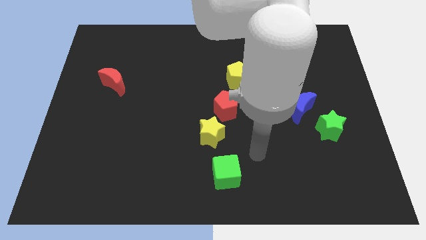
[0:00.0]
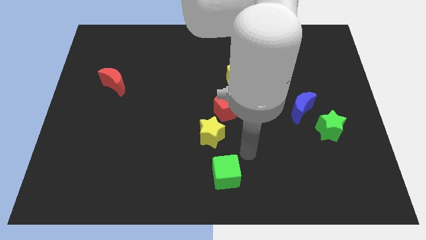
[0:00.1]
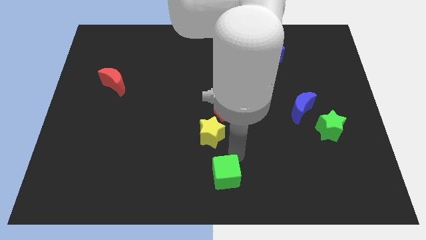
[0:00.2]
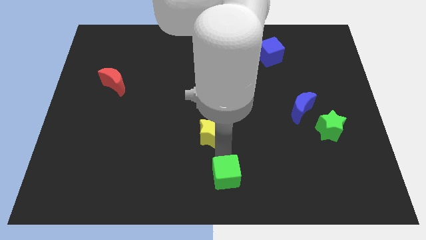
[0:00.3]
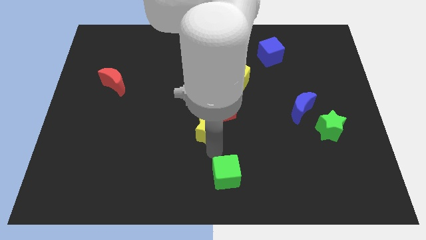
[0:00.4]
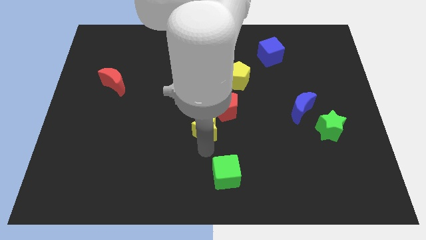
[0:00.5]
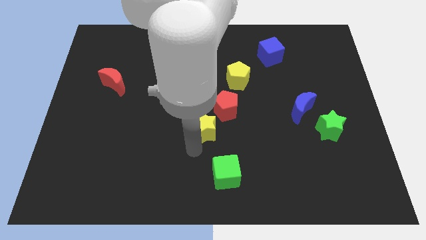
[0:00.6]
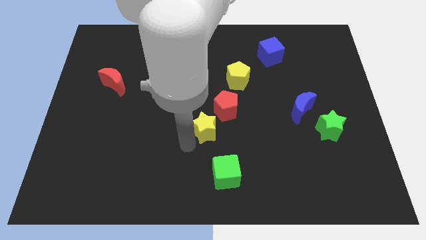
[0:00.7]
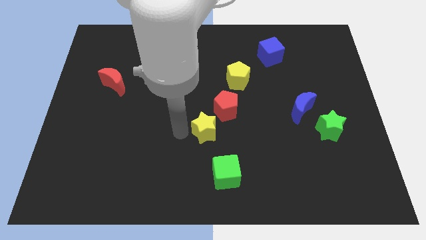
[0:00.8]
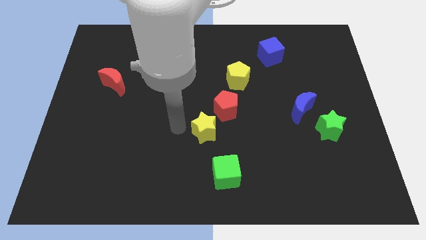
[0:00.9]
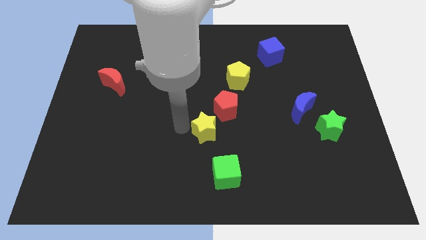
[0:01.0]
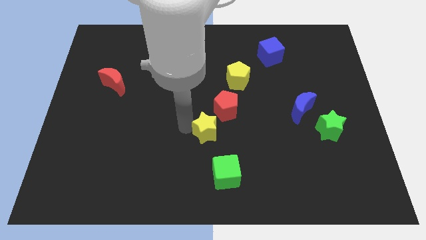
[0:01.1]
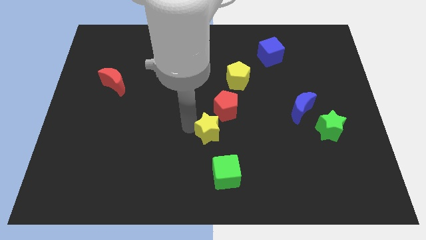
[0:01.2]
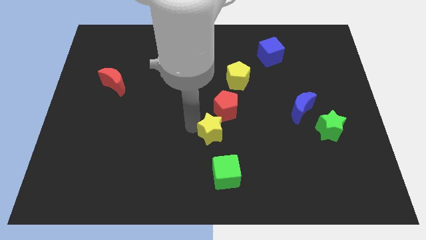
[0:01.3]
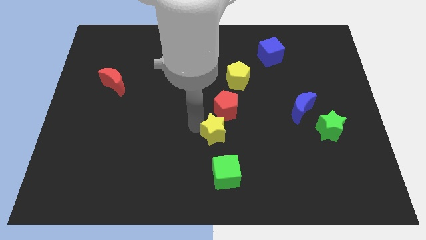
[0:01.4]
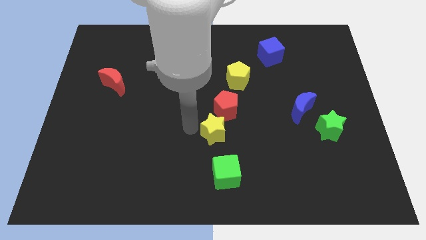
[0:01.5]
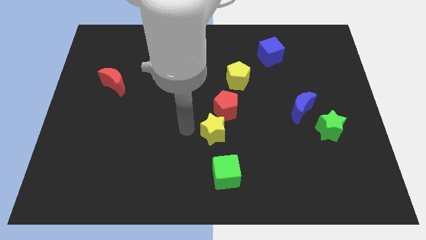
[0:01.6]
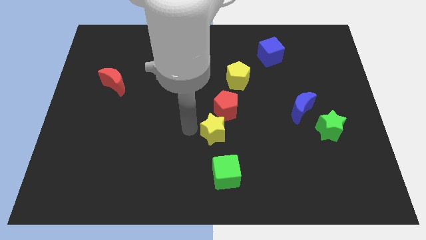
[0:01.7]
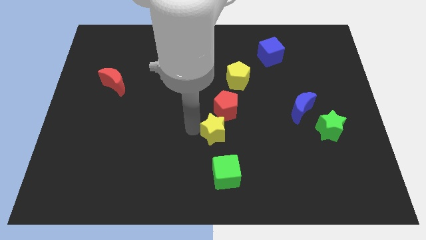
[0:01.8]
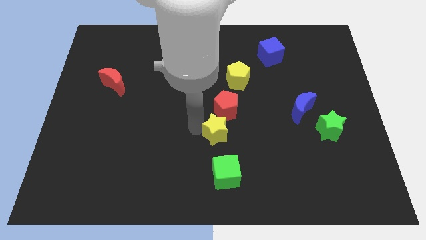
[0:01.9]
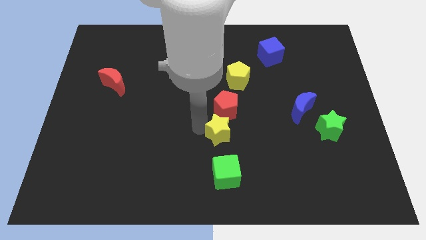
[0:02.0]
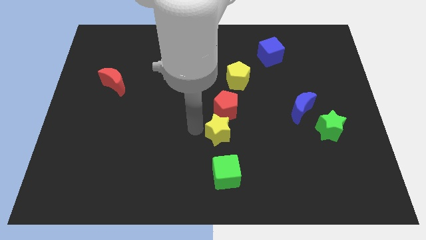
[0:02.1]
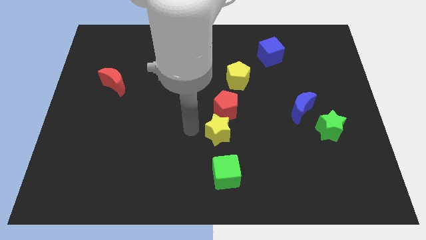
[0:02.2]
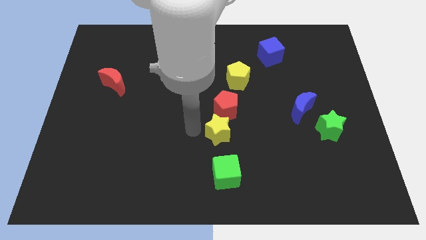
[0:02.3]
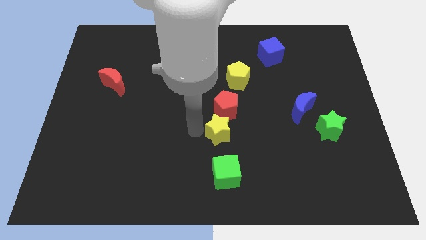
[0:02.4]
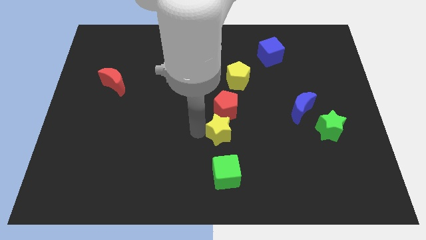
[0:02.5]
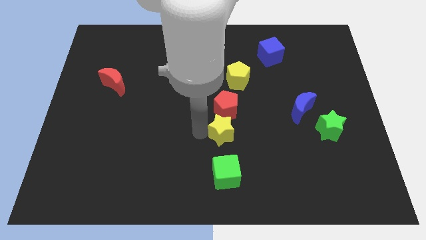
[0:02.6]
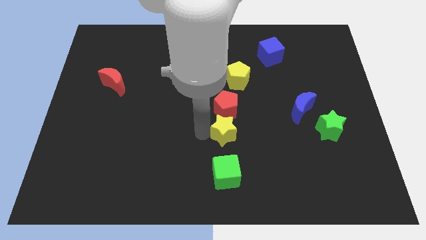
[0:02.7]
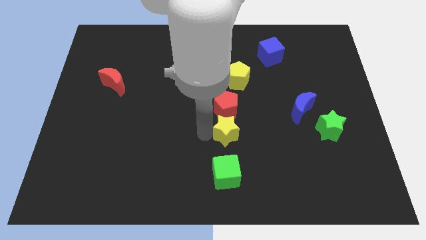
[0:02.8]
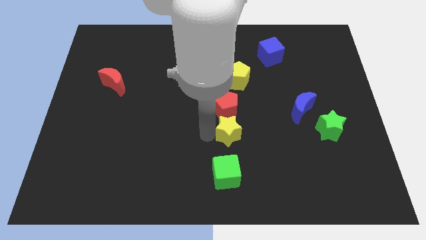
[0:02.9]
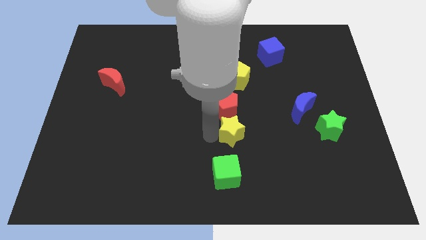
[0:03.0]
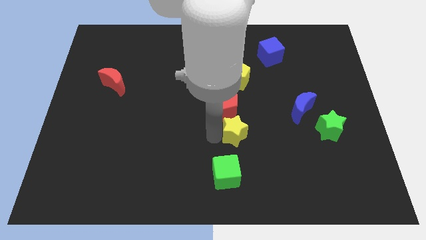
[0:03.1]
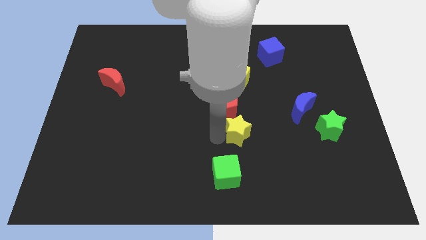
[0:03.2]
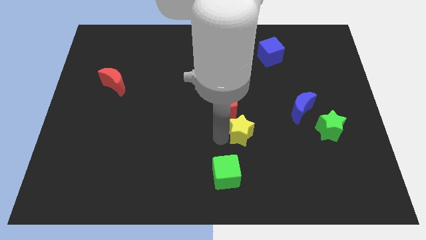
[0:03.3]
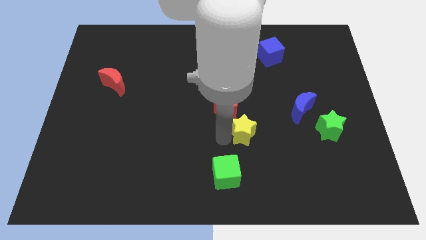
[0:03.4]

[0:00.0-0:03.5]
push the yellow star right a little

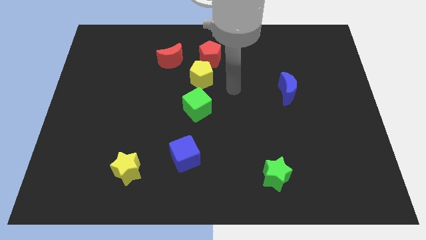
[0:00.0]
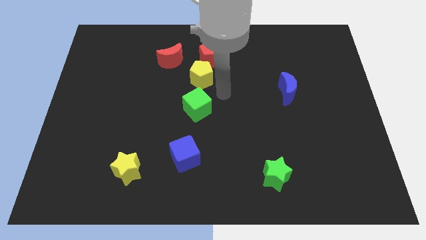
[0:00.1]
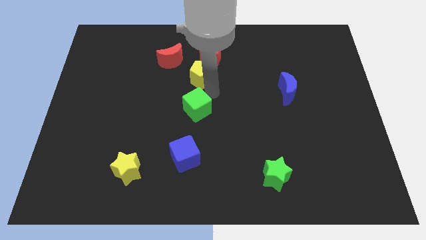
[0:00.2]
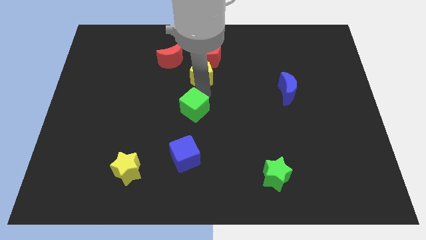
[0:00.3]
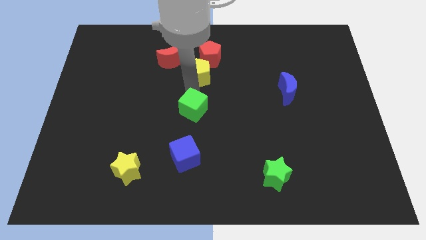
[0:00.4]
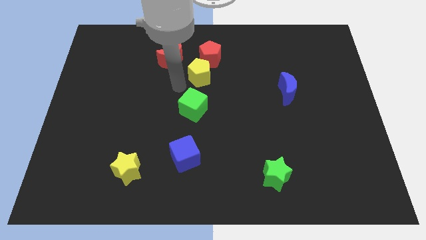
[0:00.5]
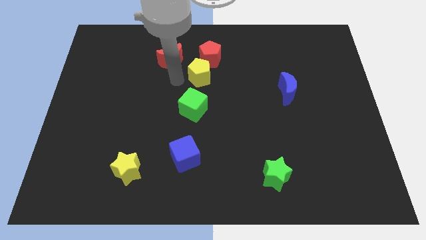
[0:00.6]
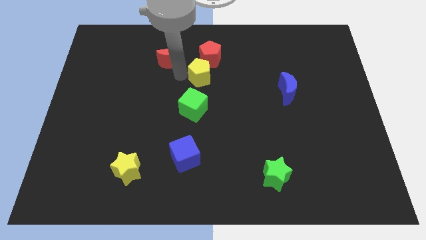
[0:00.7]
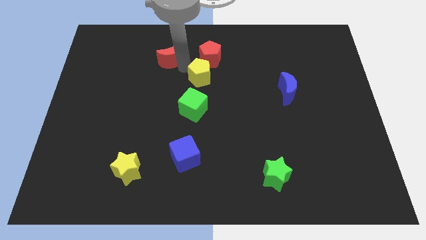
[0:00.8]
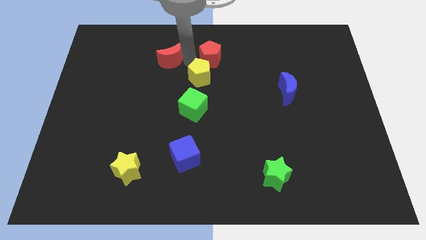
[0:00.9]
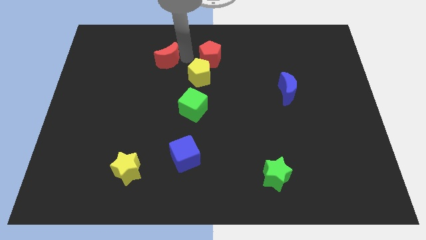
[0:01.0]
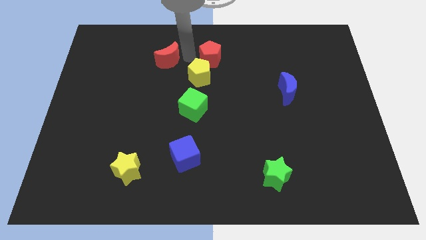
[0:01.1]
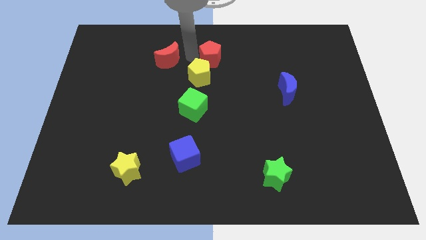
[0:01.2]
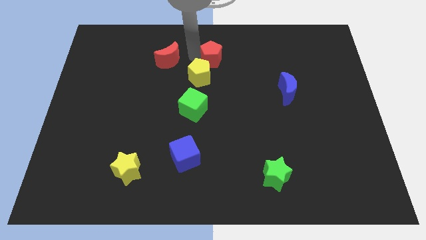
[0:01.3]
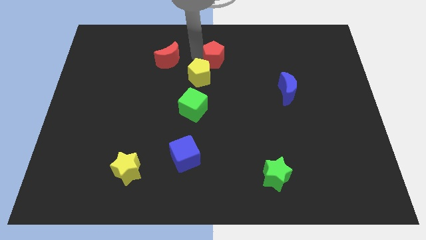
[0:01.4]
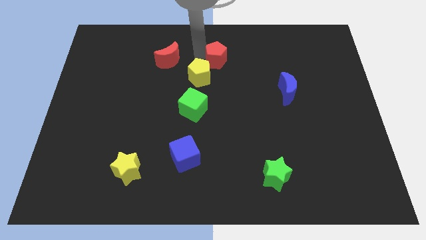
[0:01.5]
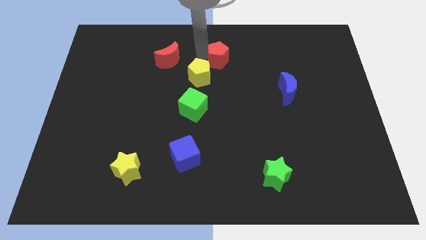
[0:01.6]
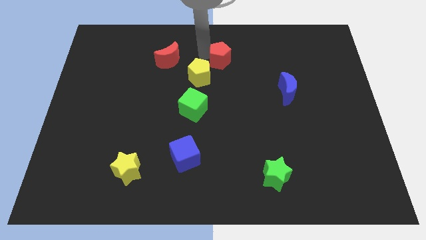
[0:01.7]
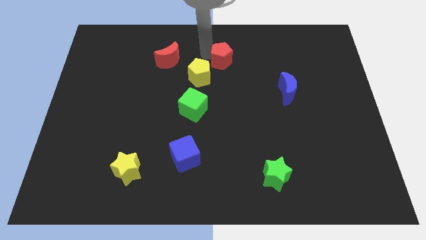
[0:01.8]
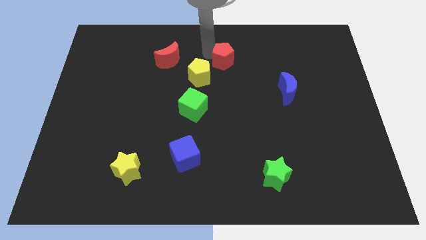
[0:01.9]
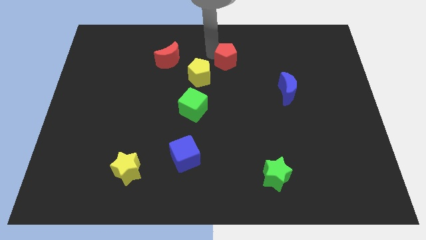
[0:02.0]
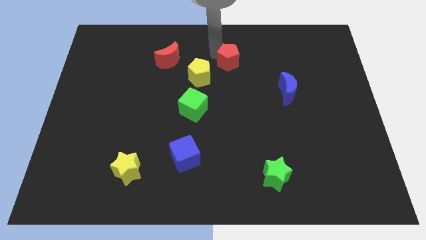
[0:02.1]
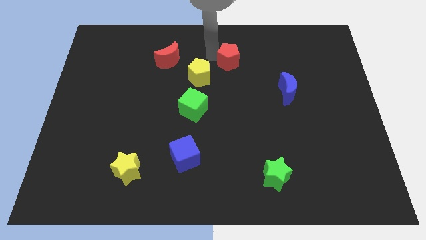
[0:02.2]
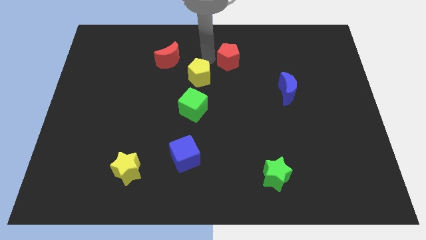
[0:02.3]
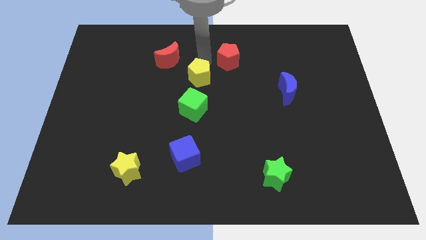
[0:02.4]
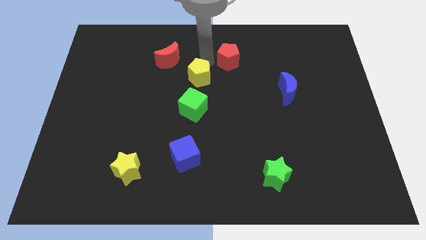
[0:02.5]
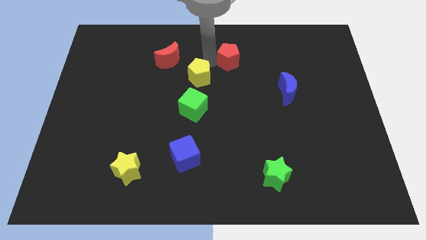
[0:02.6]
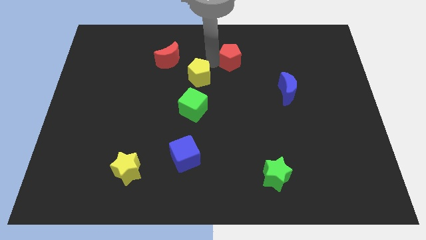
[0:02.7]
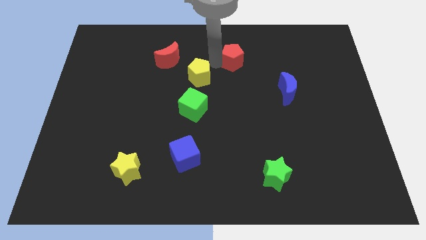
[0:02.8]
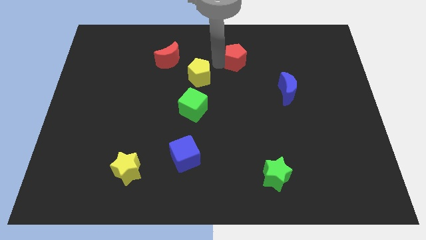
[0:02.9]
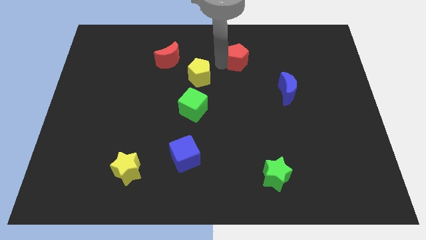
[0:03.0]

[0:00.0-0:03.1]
slightly slide the red pentagon to the right

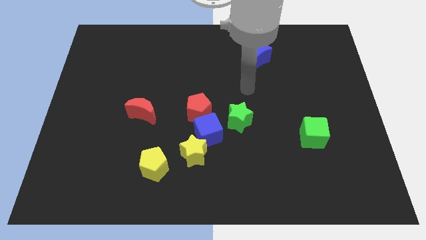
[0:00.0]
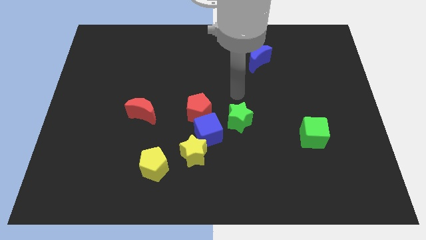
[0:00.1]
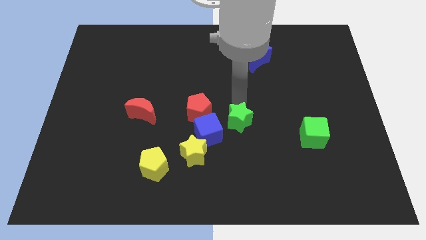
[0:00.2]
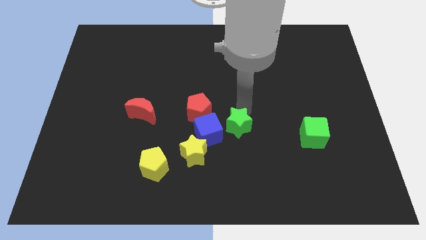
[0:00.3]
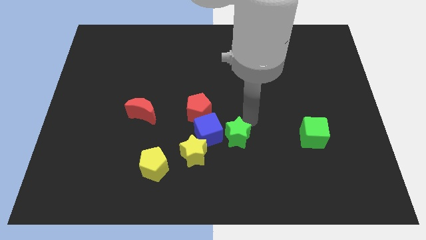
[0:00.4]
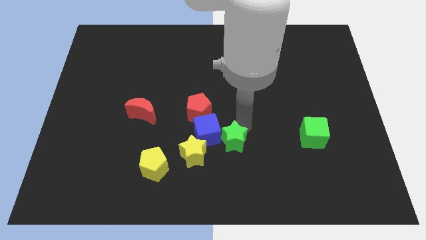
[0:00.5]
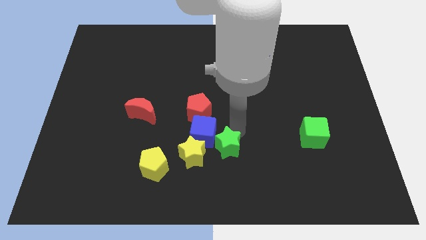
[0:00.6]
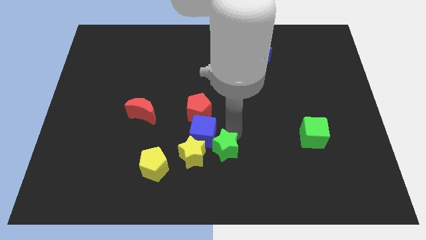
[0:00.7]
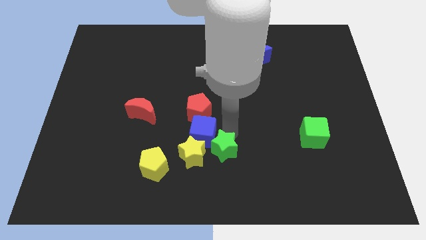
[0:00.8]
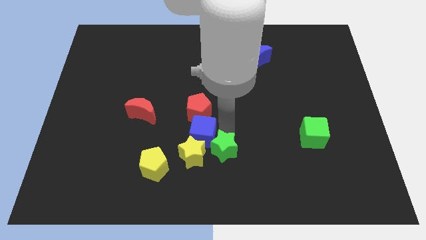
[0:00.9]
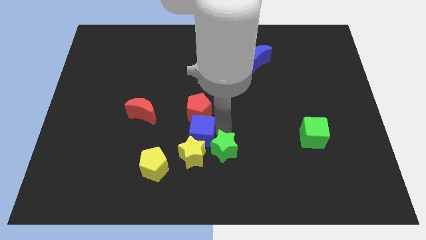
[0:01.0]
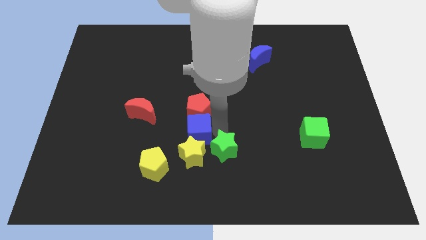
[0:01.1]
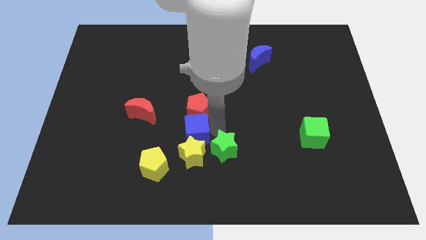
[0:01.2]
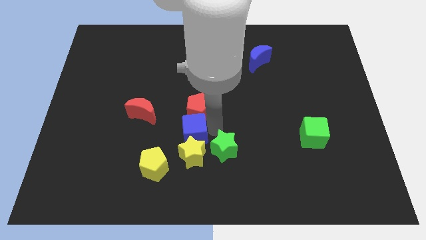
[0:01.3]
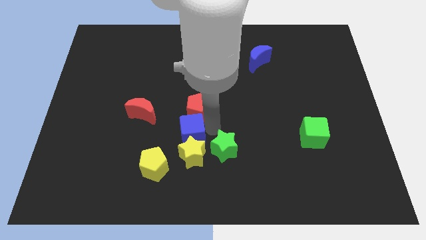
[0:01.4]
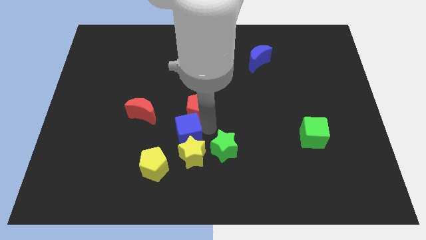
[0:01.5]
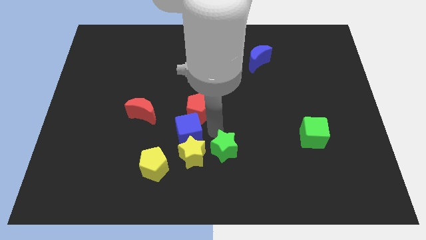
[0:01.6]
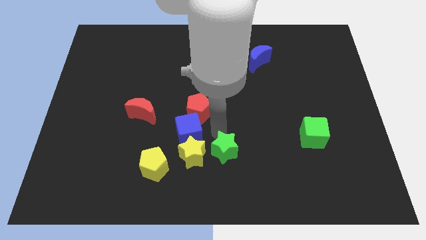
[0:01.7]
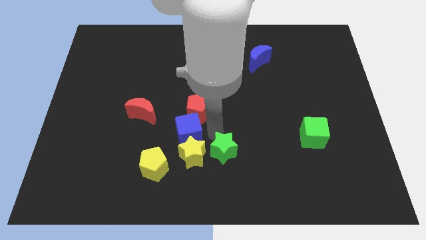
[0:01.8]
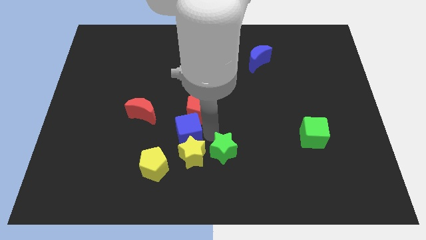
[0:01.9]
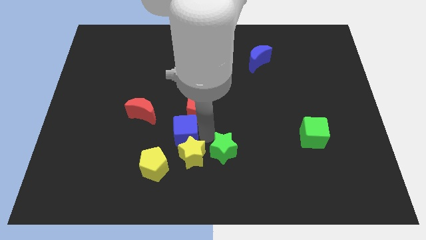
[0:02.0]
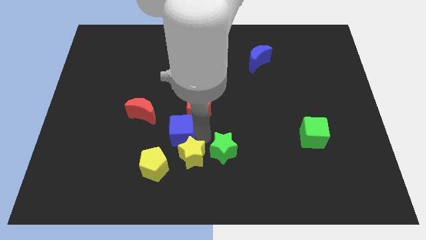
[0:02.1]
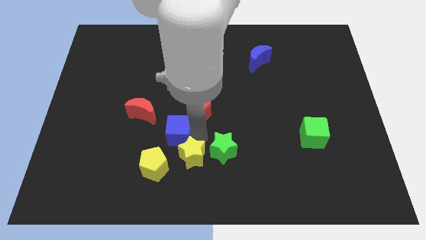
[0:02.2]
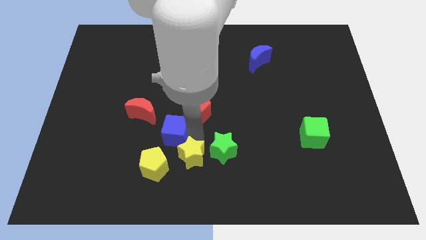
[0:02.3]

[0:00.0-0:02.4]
slightly move the blue cube to the left
